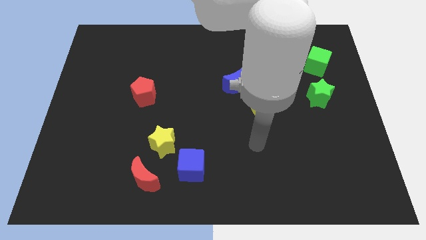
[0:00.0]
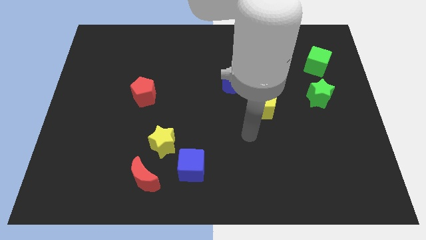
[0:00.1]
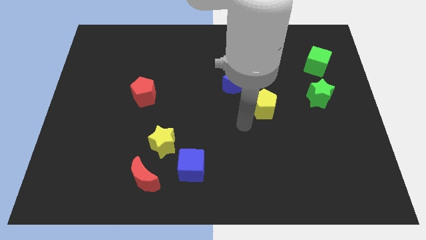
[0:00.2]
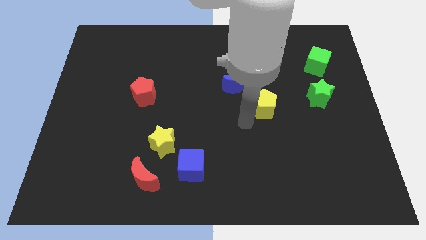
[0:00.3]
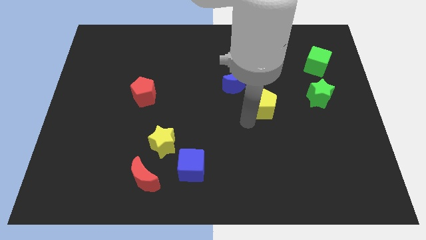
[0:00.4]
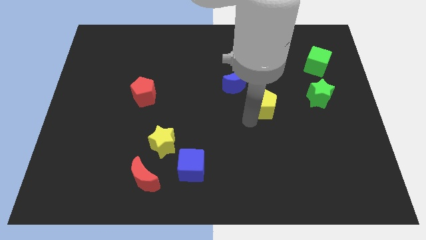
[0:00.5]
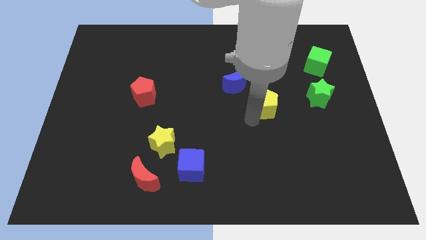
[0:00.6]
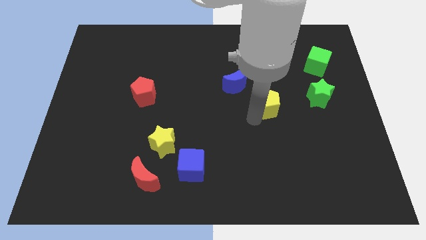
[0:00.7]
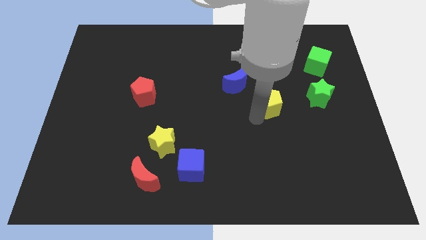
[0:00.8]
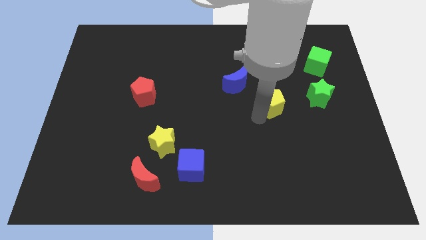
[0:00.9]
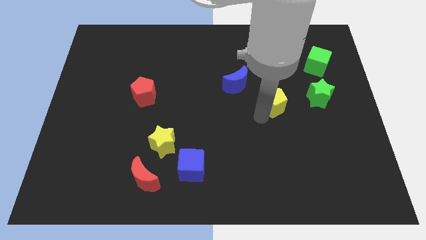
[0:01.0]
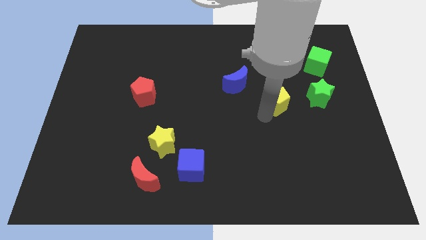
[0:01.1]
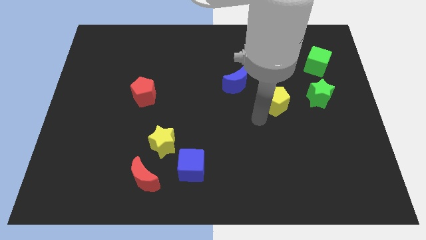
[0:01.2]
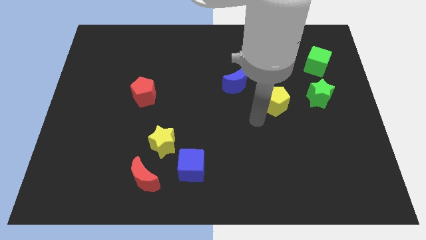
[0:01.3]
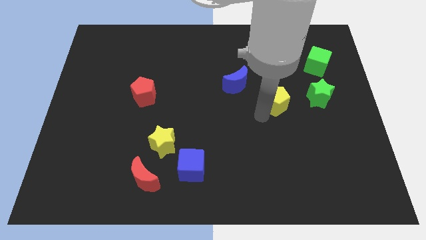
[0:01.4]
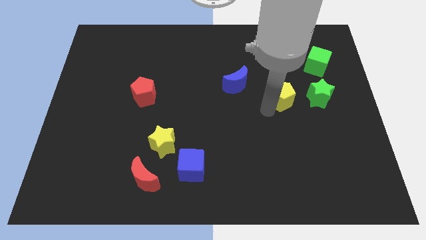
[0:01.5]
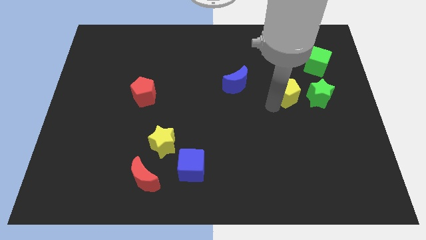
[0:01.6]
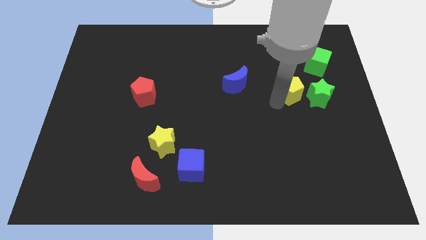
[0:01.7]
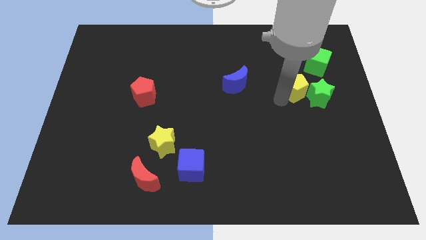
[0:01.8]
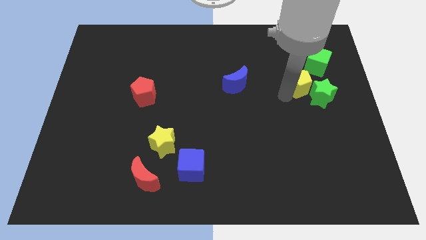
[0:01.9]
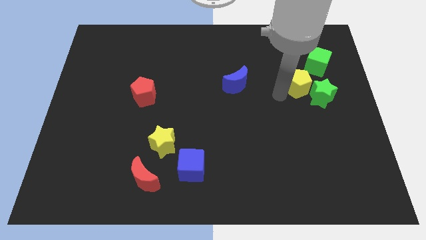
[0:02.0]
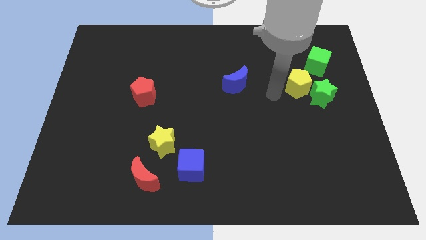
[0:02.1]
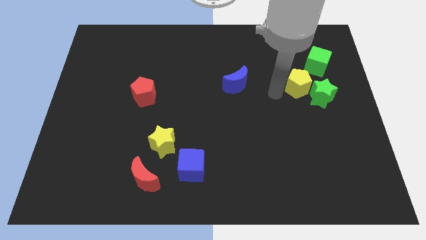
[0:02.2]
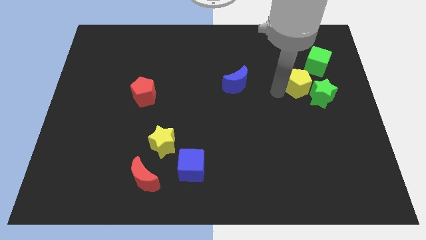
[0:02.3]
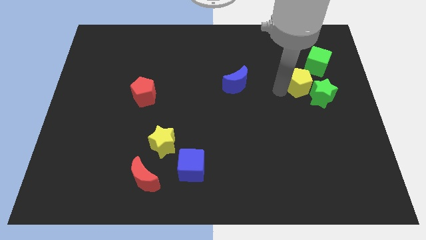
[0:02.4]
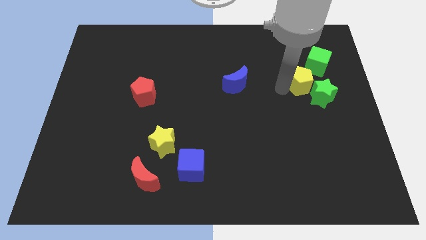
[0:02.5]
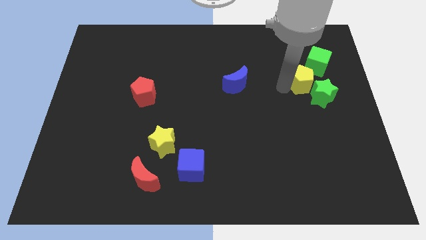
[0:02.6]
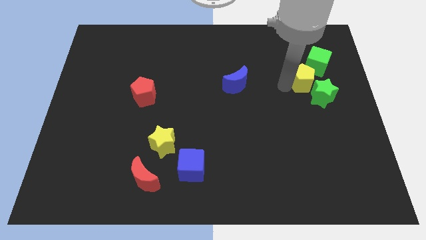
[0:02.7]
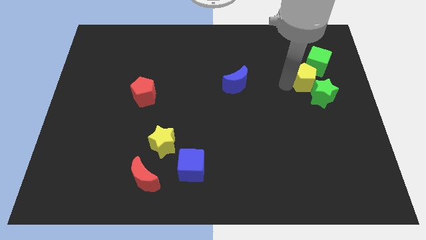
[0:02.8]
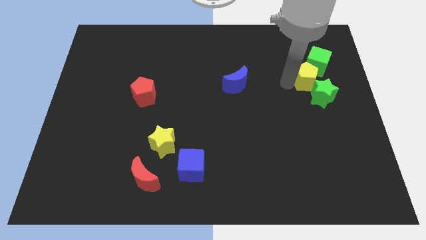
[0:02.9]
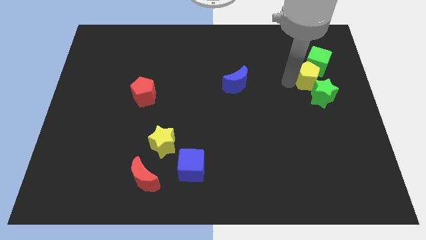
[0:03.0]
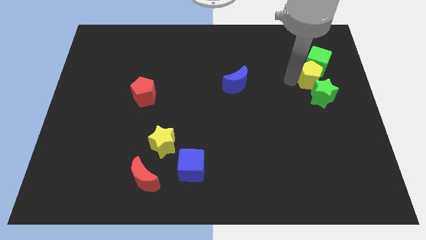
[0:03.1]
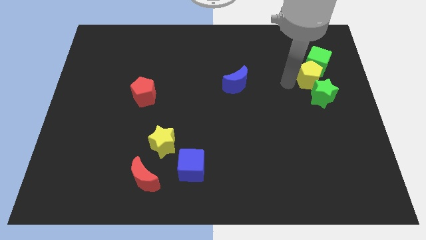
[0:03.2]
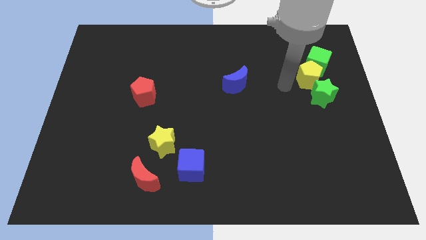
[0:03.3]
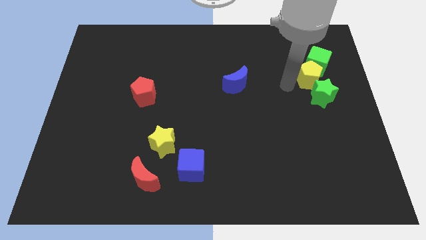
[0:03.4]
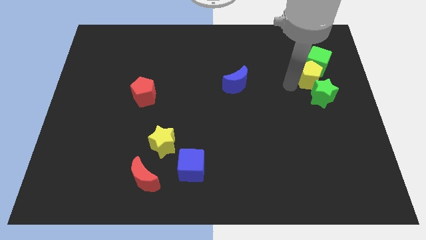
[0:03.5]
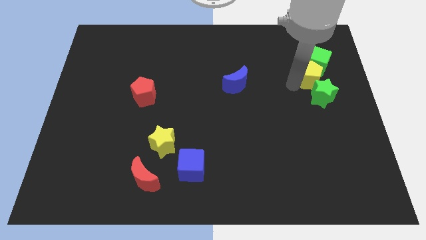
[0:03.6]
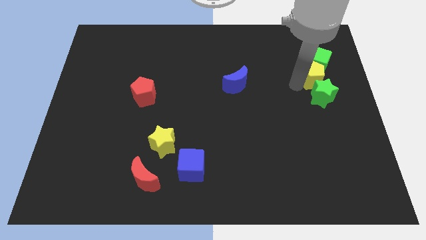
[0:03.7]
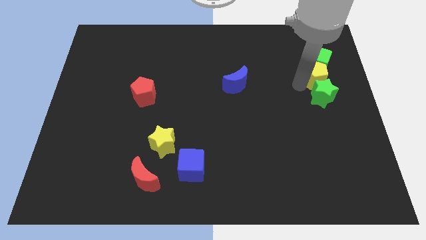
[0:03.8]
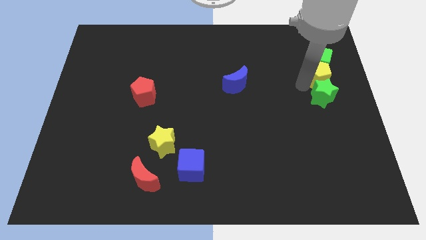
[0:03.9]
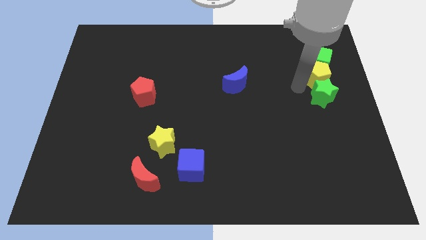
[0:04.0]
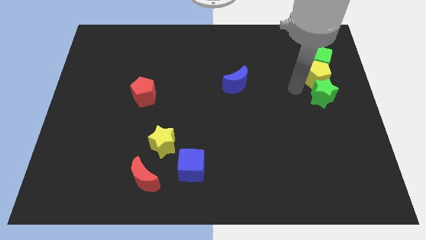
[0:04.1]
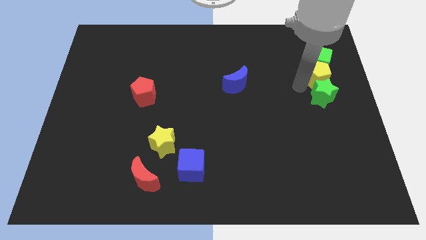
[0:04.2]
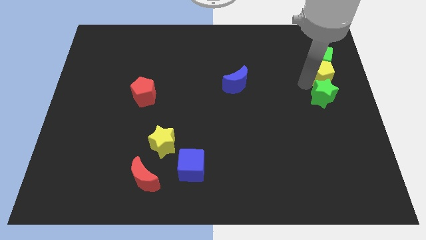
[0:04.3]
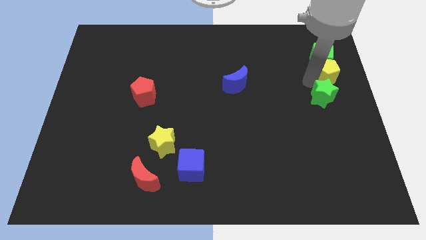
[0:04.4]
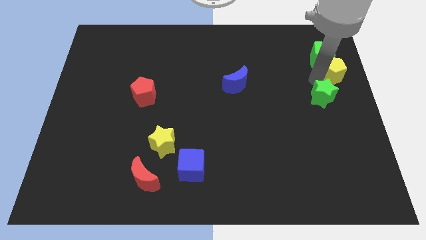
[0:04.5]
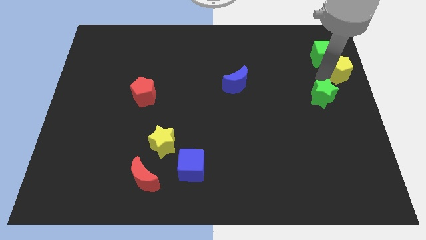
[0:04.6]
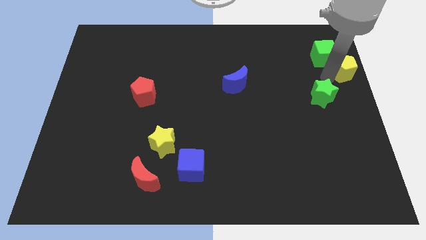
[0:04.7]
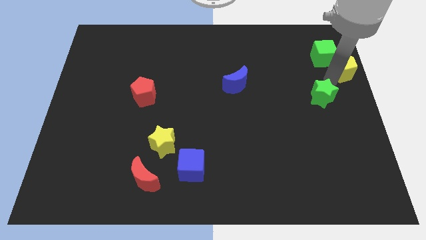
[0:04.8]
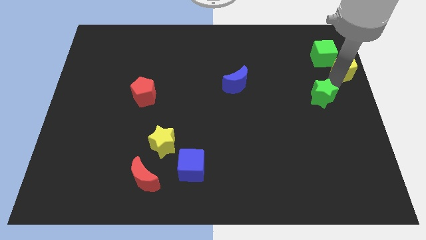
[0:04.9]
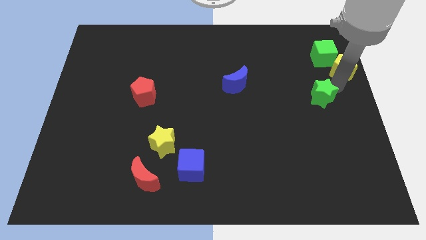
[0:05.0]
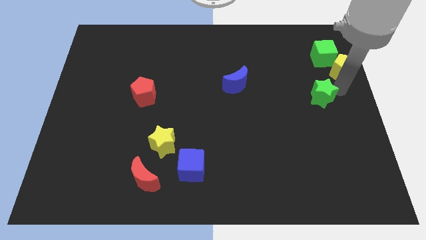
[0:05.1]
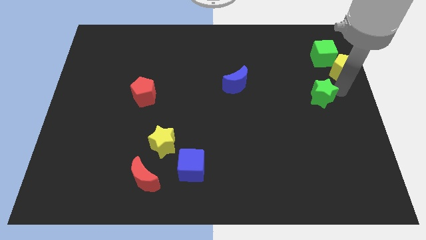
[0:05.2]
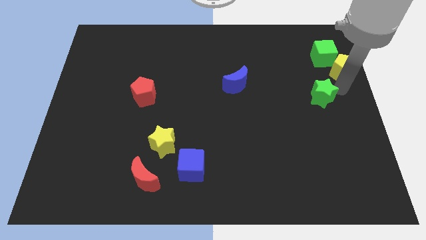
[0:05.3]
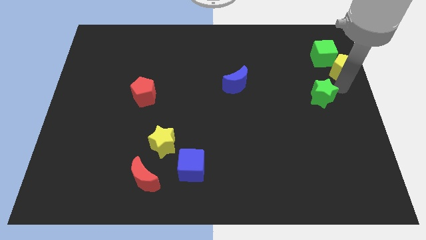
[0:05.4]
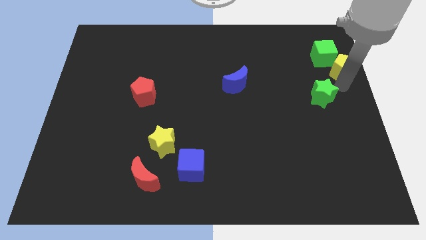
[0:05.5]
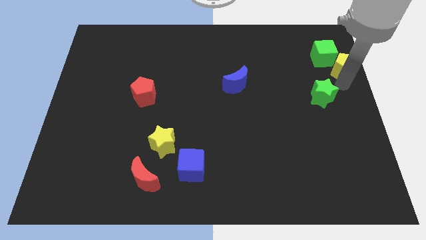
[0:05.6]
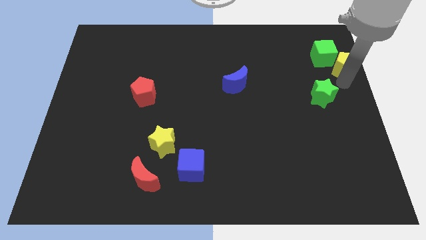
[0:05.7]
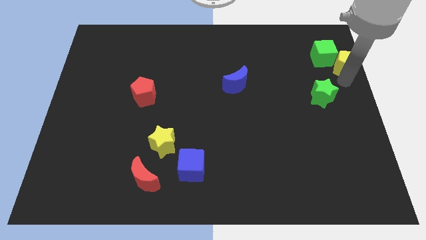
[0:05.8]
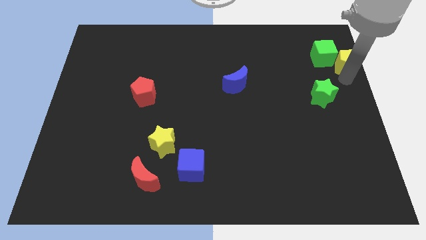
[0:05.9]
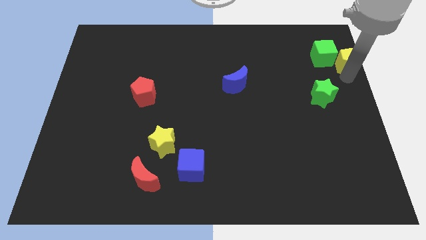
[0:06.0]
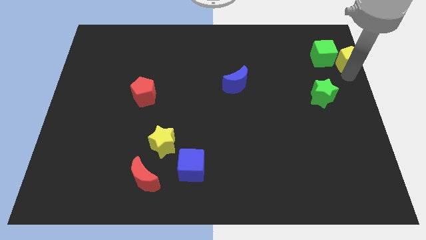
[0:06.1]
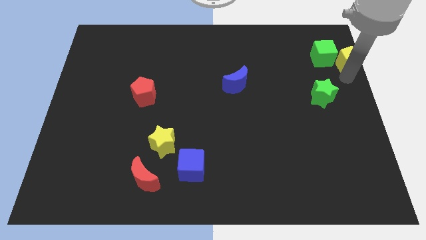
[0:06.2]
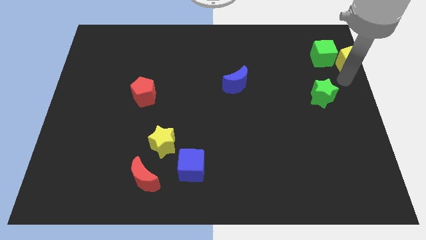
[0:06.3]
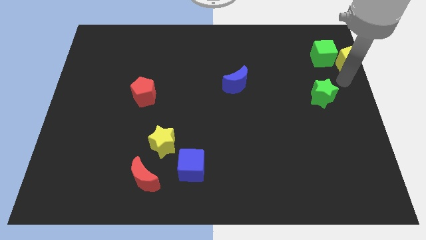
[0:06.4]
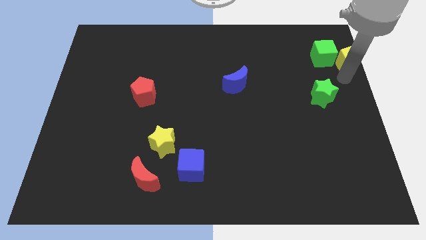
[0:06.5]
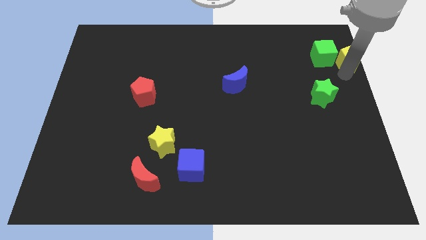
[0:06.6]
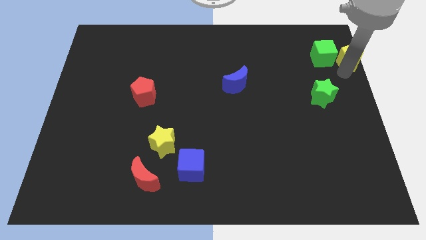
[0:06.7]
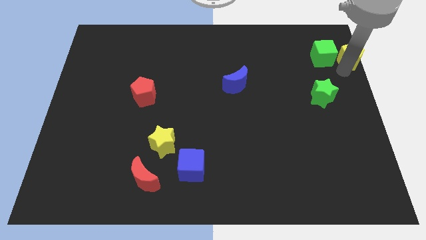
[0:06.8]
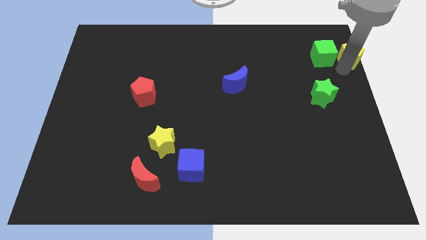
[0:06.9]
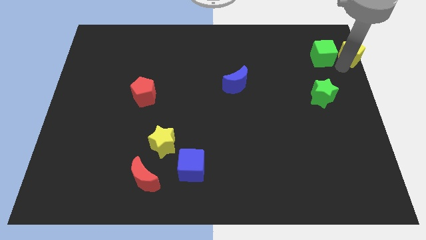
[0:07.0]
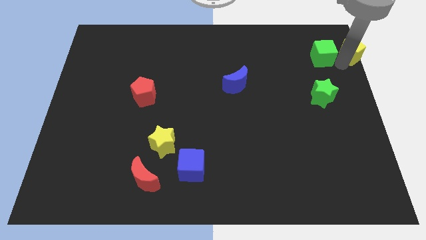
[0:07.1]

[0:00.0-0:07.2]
move the yellow pentagon to the upper right corner
